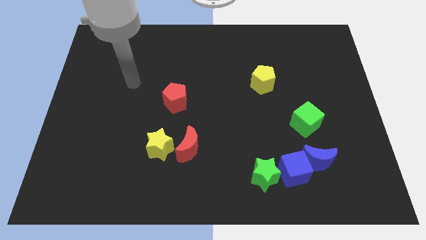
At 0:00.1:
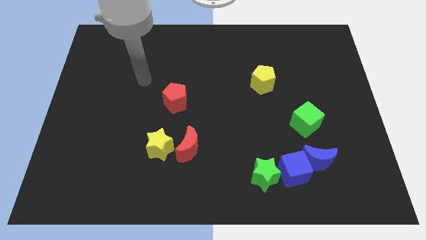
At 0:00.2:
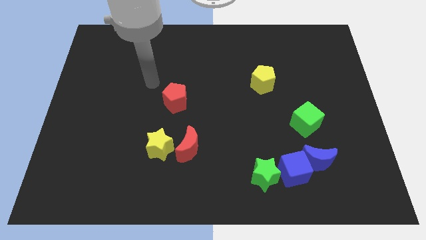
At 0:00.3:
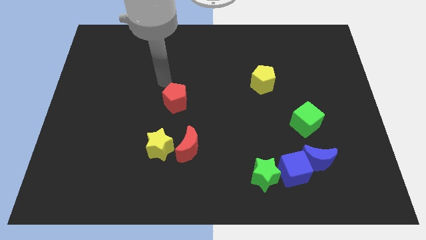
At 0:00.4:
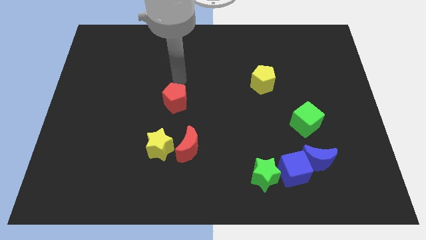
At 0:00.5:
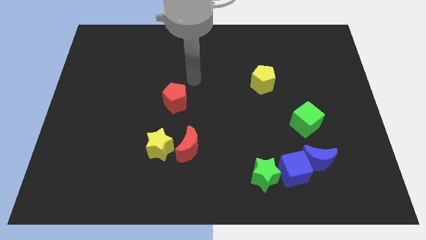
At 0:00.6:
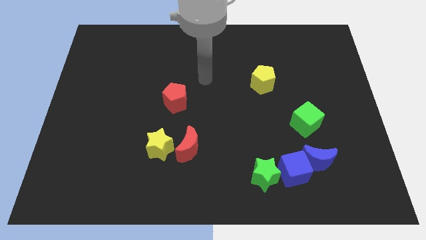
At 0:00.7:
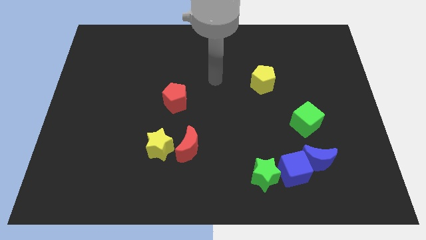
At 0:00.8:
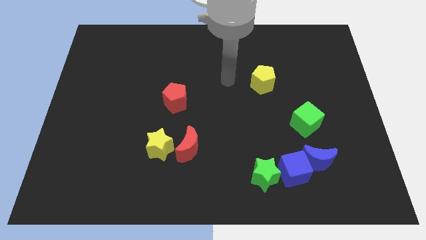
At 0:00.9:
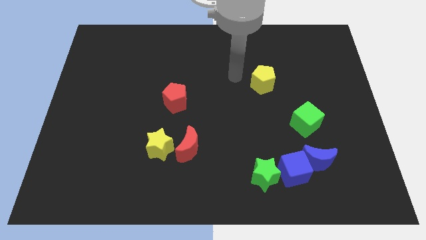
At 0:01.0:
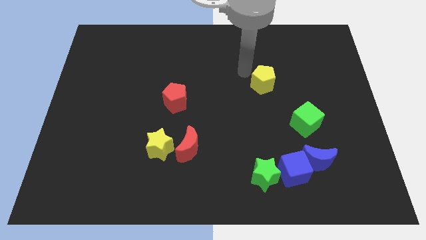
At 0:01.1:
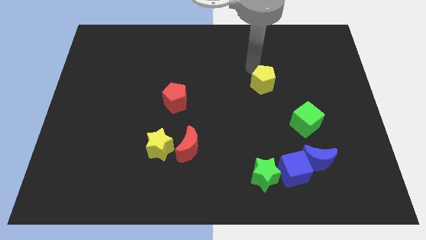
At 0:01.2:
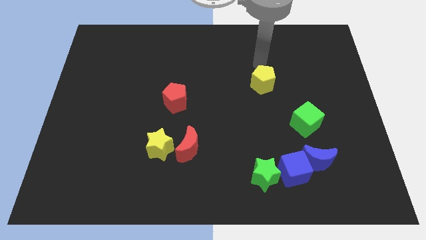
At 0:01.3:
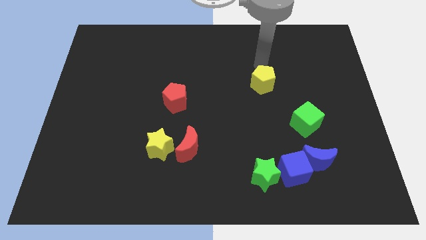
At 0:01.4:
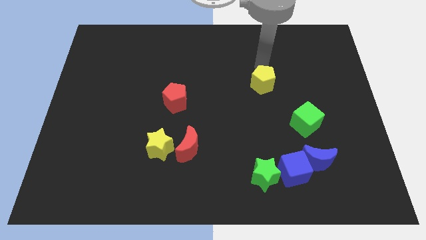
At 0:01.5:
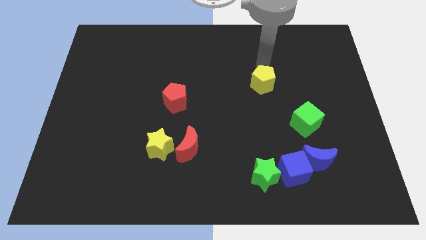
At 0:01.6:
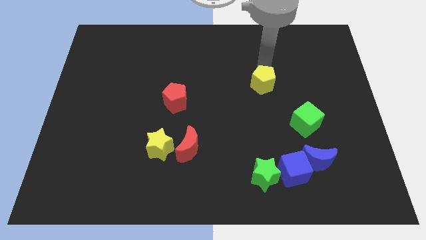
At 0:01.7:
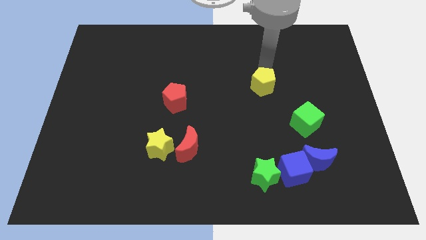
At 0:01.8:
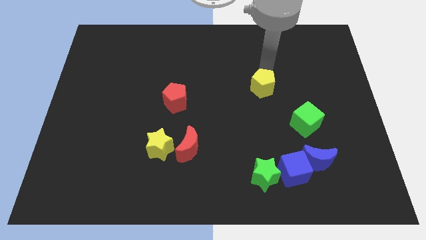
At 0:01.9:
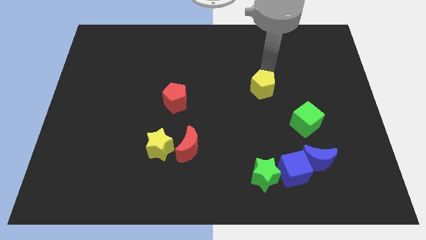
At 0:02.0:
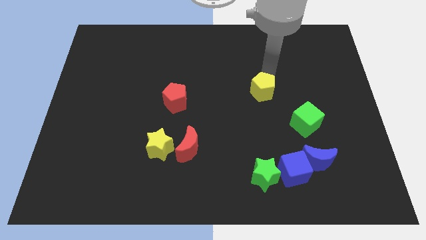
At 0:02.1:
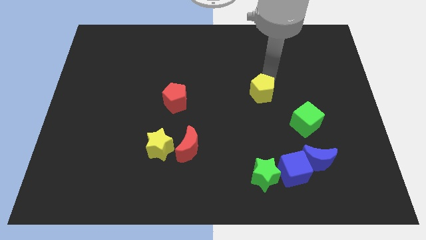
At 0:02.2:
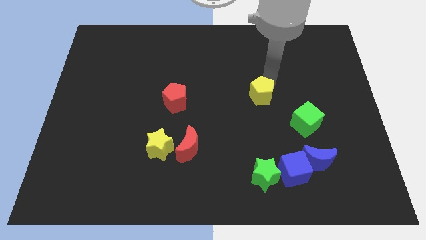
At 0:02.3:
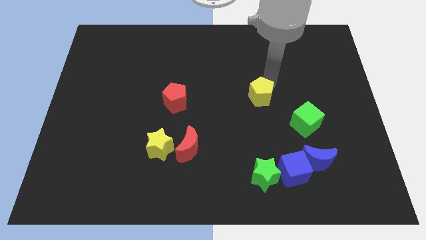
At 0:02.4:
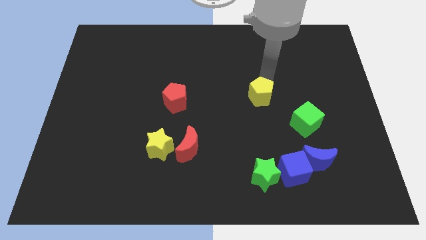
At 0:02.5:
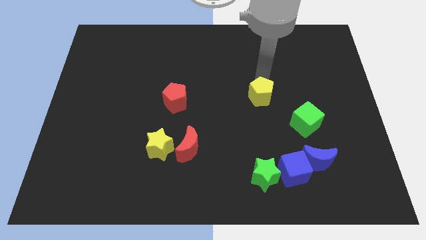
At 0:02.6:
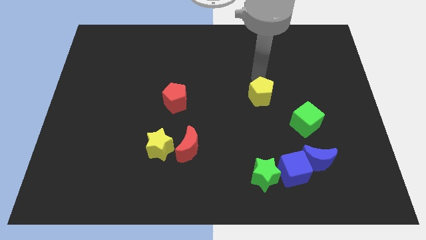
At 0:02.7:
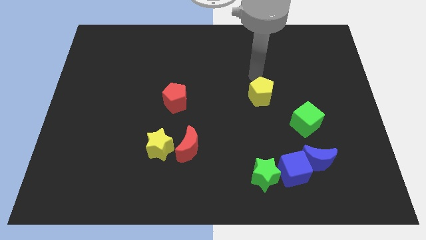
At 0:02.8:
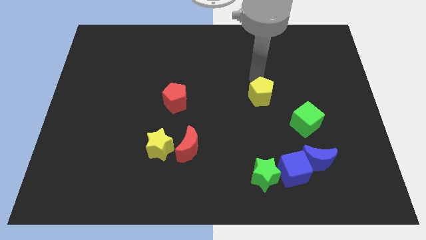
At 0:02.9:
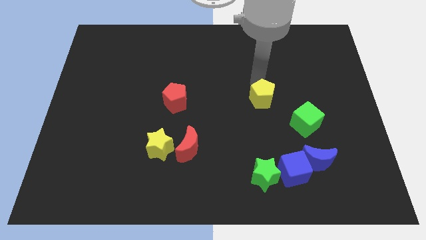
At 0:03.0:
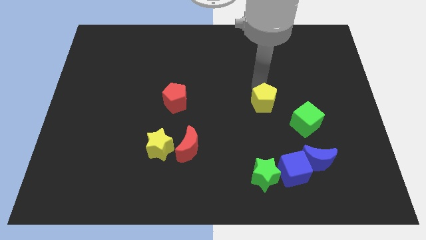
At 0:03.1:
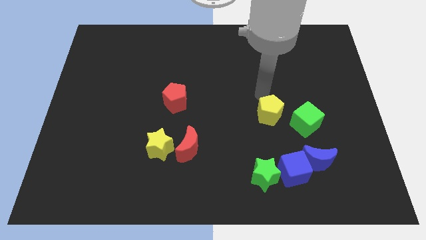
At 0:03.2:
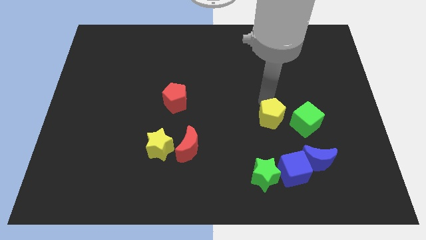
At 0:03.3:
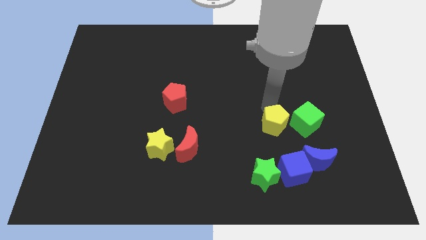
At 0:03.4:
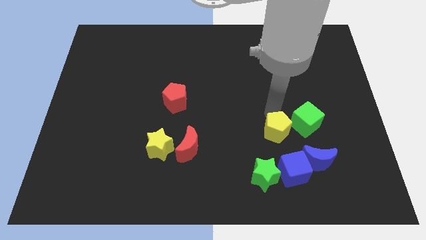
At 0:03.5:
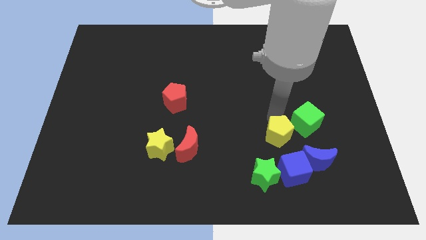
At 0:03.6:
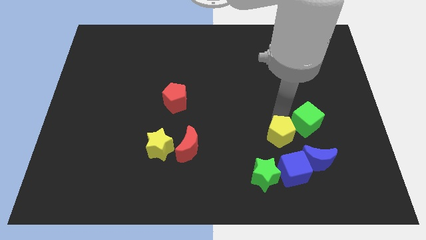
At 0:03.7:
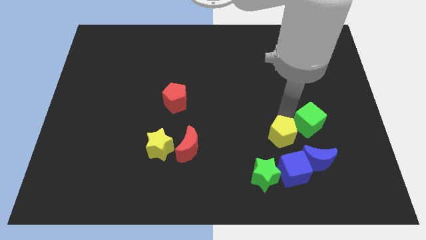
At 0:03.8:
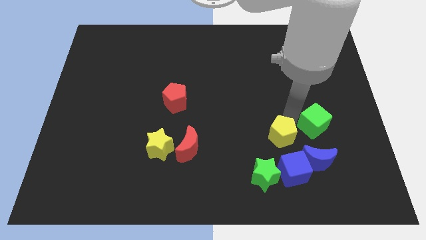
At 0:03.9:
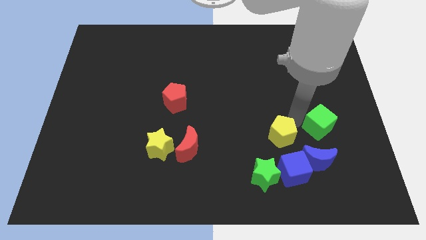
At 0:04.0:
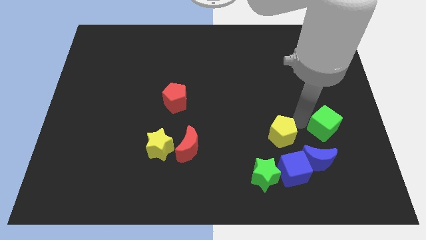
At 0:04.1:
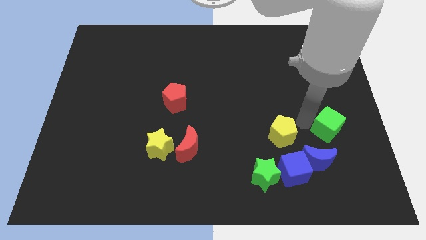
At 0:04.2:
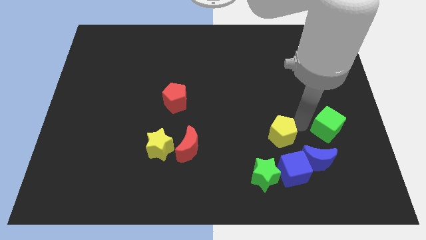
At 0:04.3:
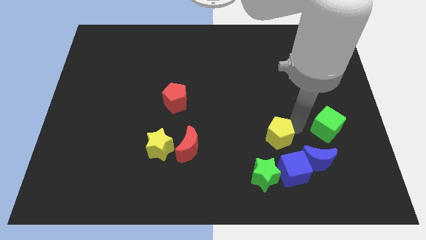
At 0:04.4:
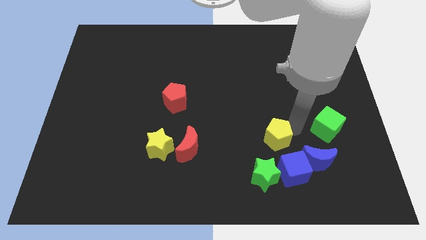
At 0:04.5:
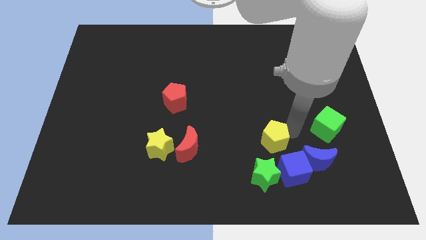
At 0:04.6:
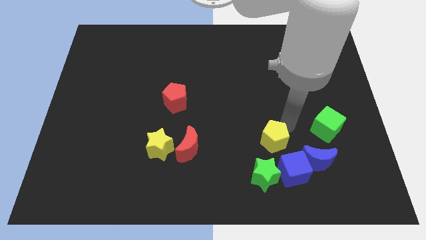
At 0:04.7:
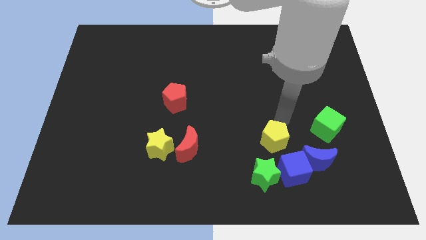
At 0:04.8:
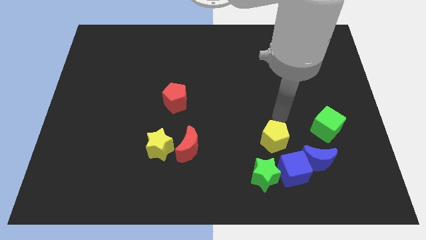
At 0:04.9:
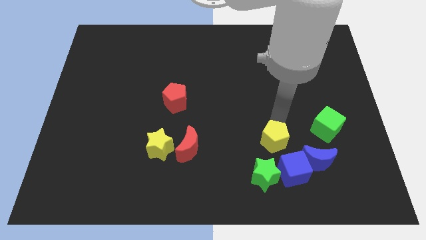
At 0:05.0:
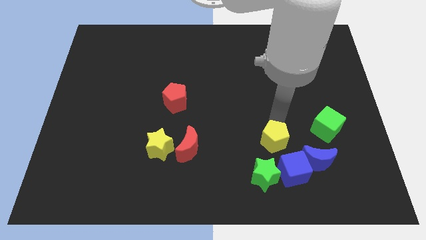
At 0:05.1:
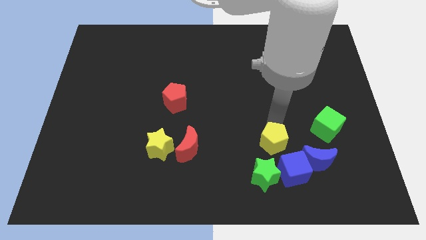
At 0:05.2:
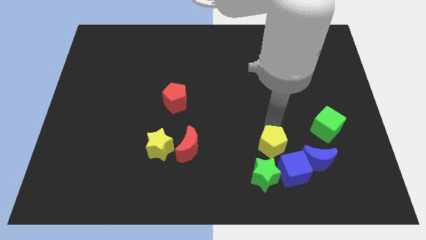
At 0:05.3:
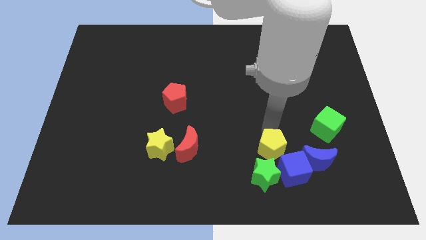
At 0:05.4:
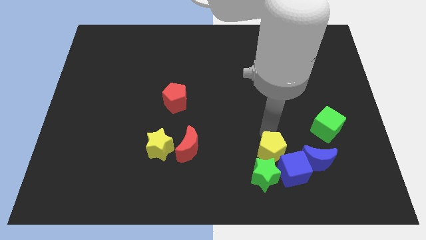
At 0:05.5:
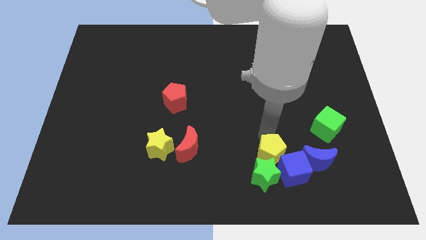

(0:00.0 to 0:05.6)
slide the yellow pentagon to the green star
